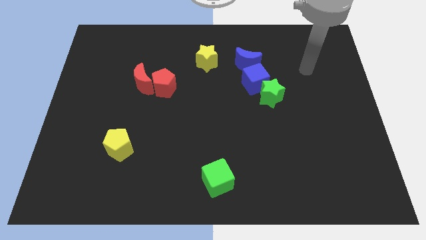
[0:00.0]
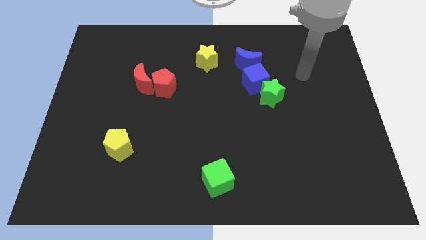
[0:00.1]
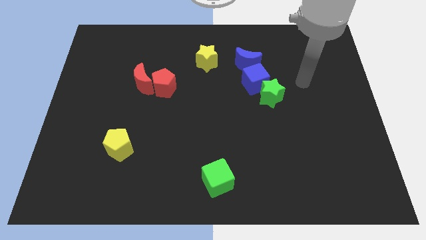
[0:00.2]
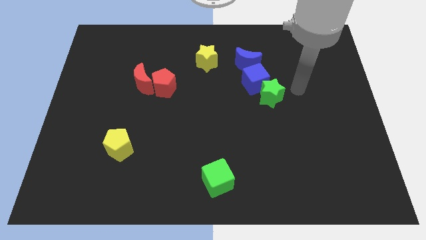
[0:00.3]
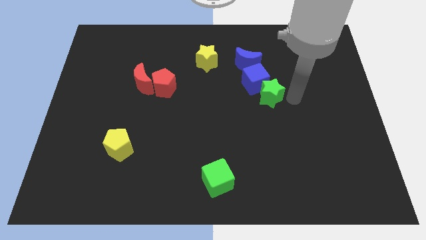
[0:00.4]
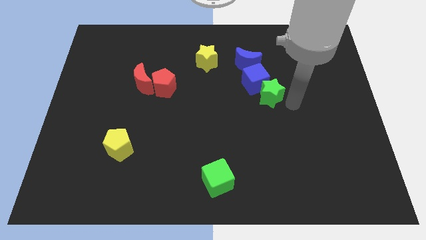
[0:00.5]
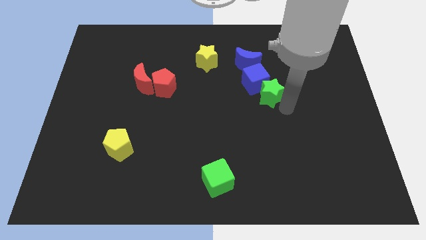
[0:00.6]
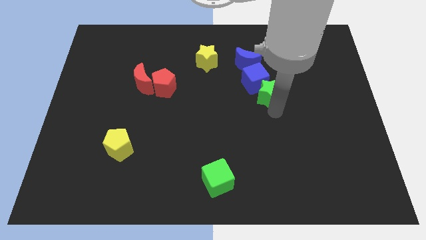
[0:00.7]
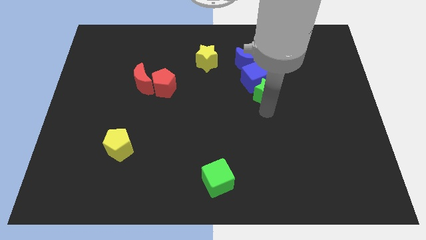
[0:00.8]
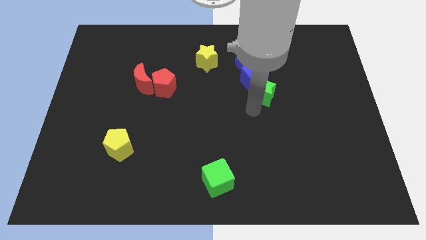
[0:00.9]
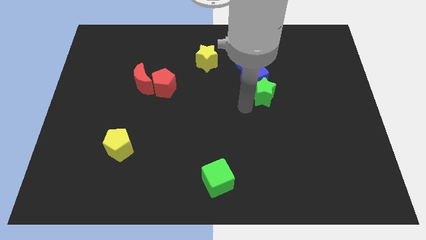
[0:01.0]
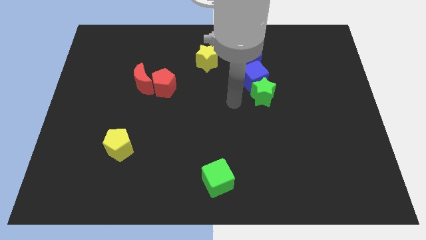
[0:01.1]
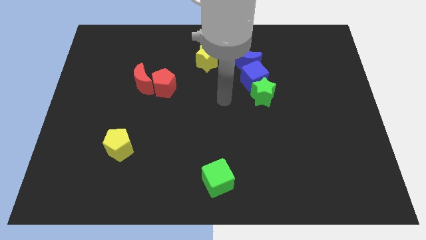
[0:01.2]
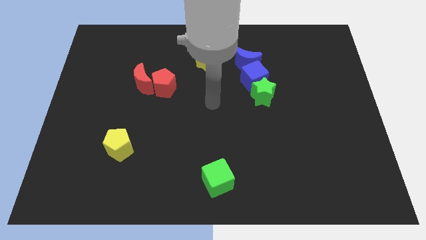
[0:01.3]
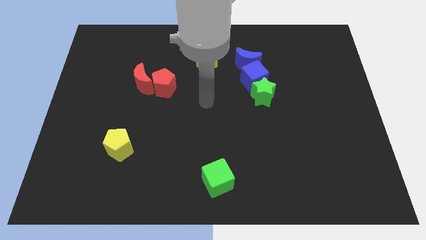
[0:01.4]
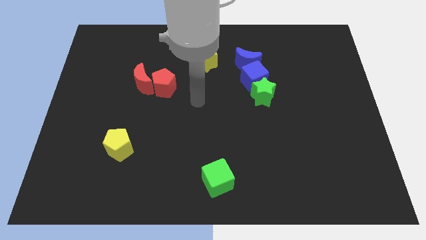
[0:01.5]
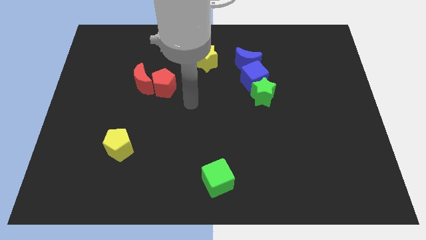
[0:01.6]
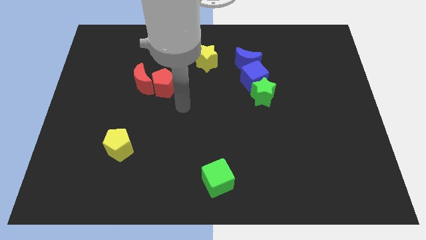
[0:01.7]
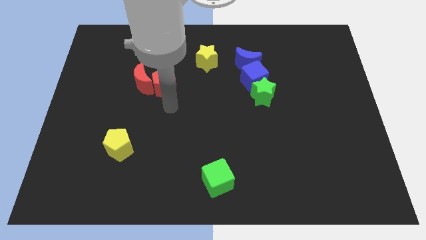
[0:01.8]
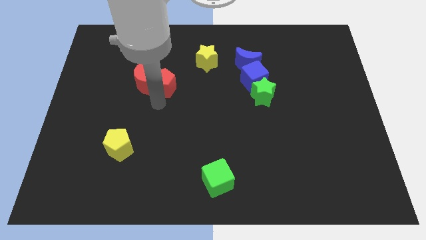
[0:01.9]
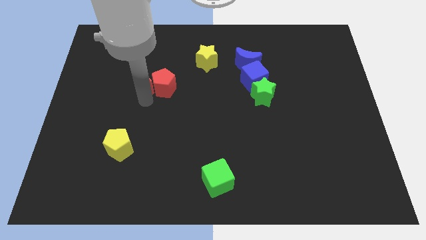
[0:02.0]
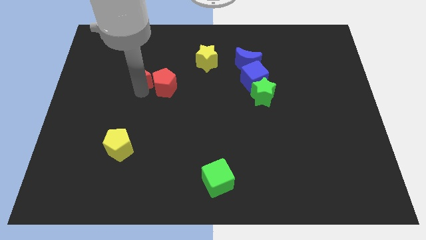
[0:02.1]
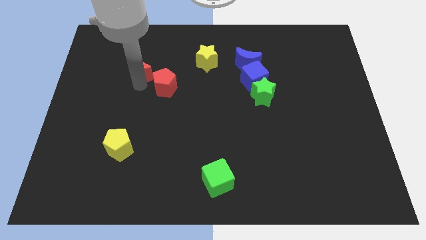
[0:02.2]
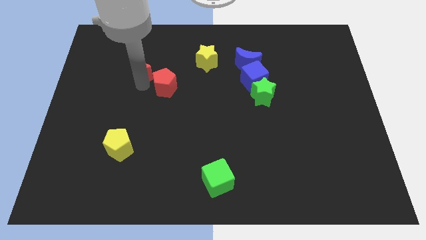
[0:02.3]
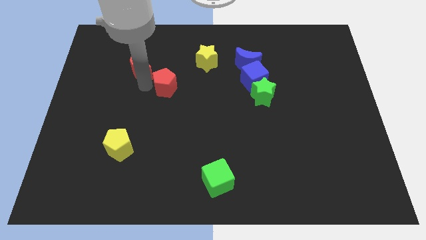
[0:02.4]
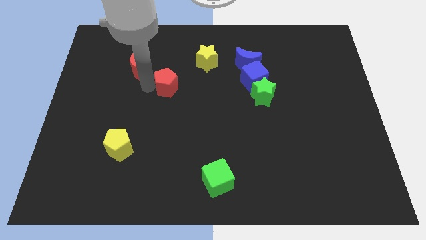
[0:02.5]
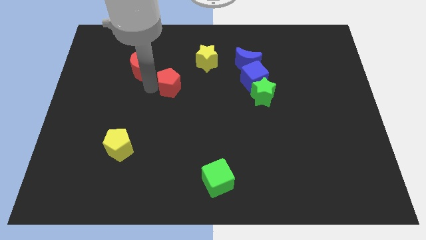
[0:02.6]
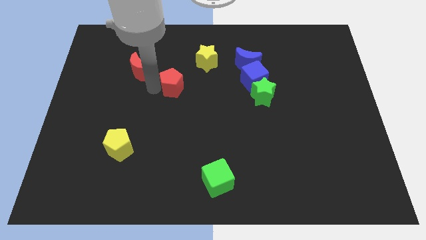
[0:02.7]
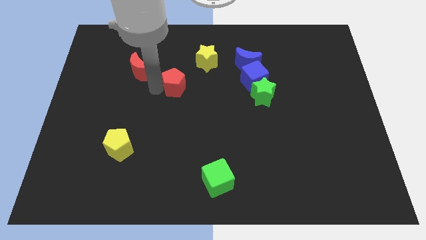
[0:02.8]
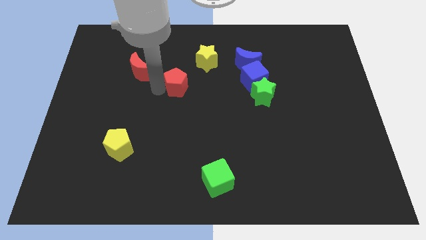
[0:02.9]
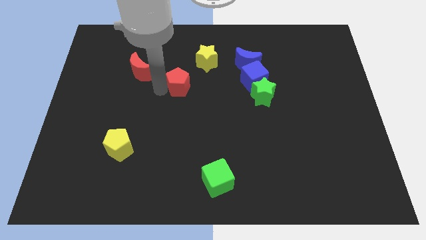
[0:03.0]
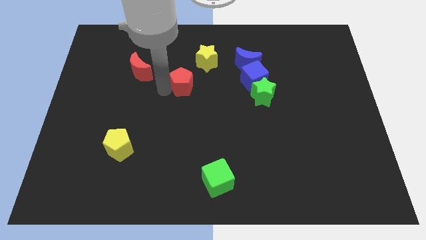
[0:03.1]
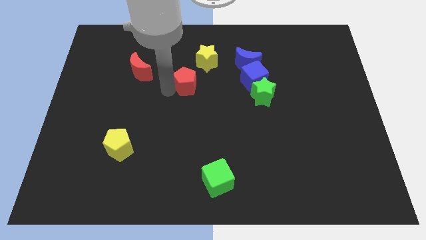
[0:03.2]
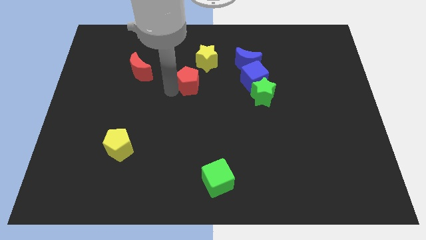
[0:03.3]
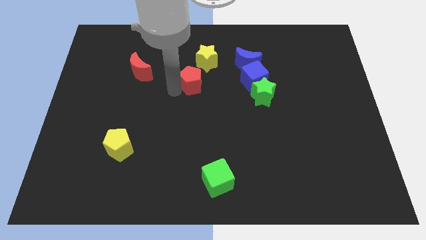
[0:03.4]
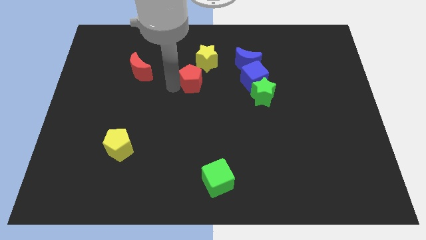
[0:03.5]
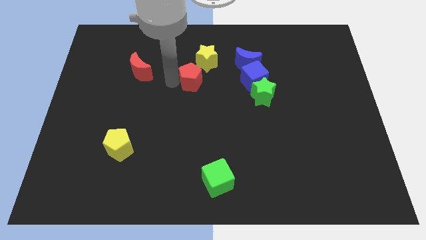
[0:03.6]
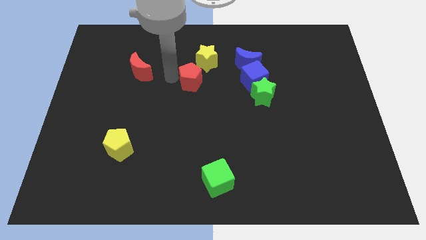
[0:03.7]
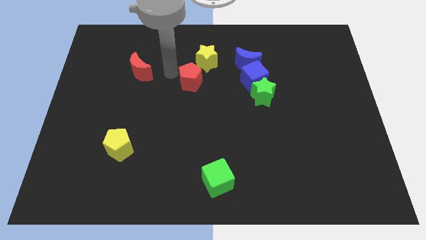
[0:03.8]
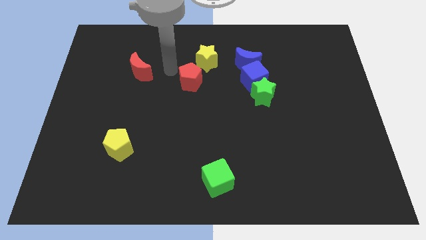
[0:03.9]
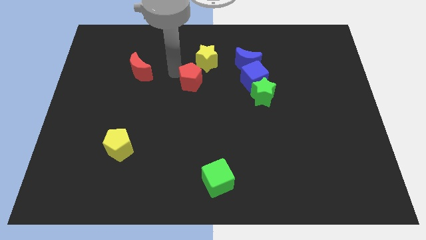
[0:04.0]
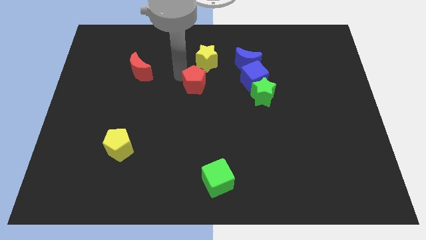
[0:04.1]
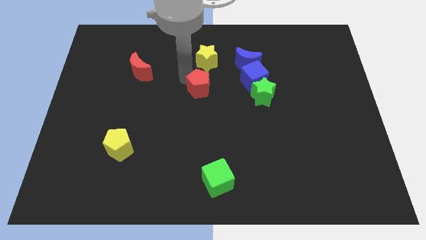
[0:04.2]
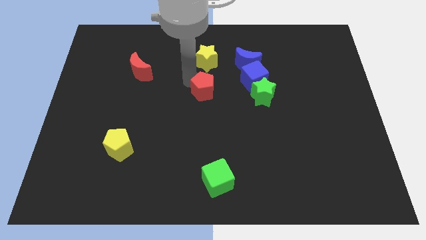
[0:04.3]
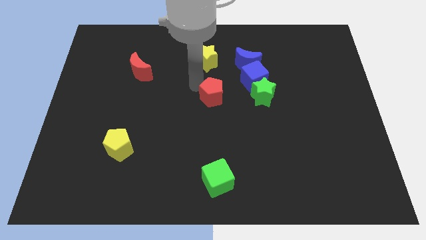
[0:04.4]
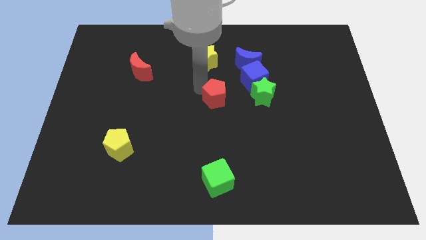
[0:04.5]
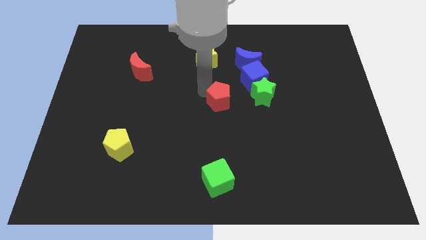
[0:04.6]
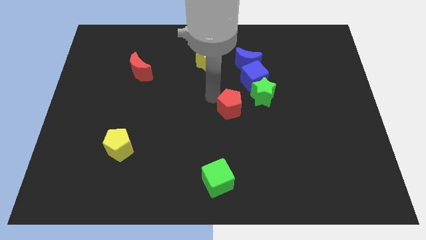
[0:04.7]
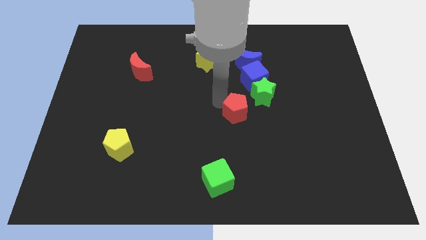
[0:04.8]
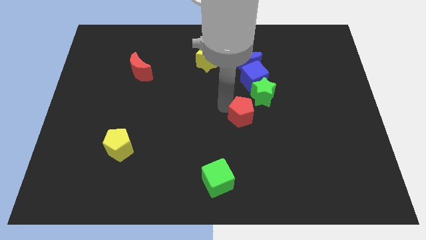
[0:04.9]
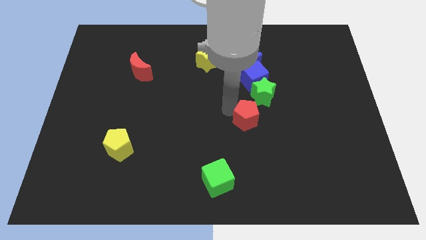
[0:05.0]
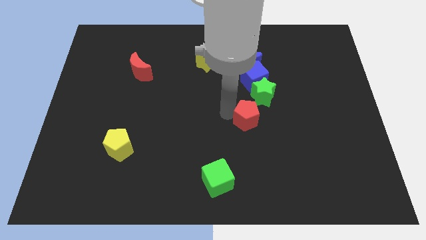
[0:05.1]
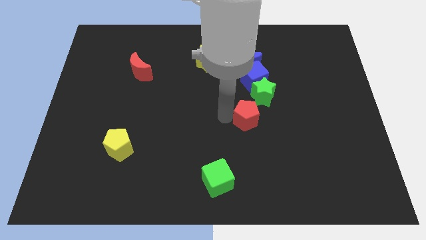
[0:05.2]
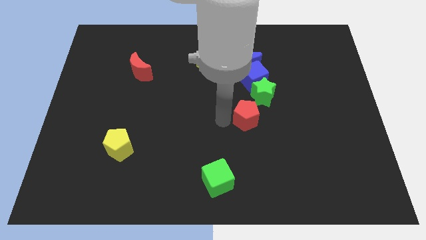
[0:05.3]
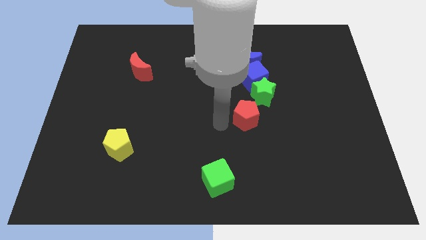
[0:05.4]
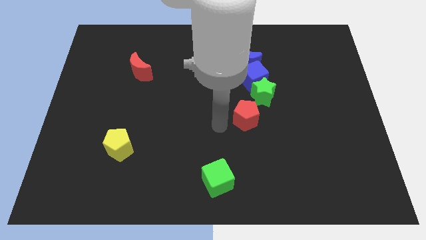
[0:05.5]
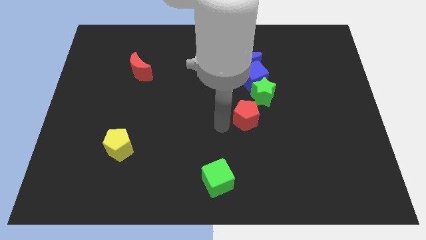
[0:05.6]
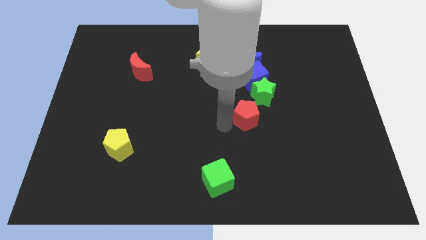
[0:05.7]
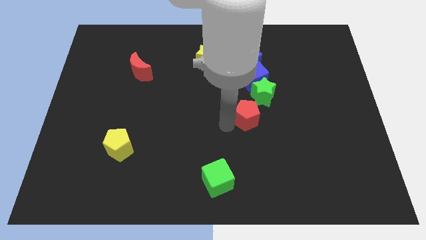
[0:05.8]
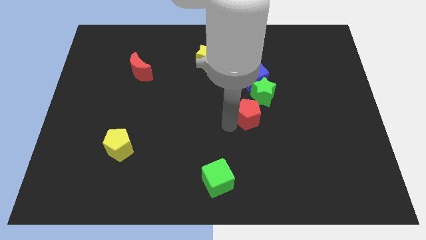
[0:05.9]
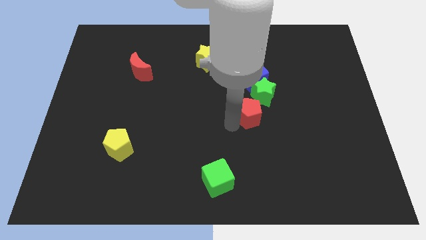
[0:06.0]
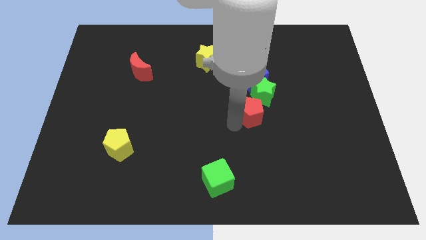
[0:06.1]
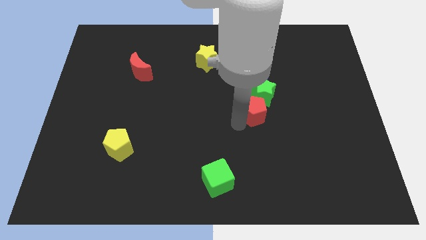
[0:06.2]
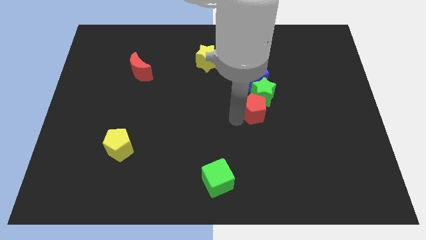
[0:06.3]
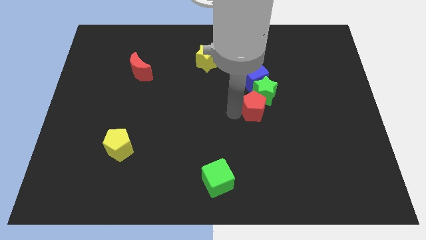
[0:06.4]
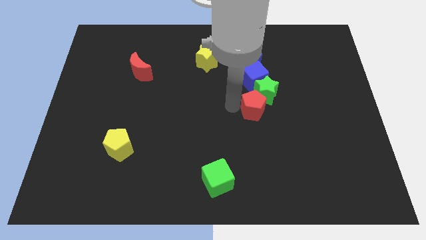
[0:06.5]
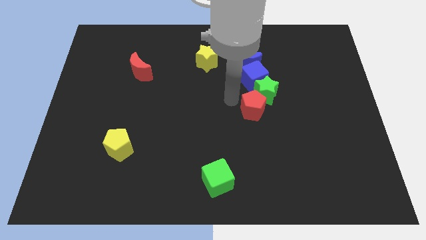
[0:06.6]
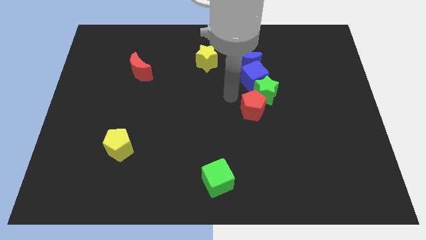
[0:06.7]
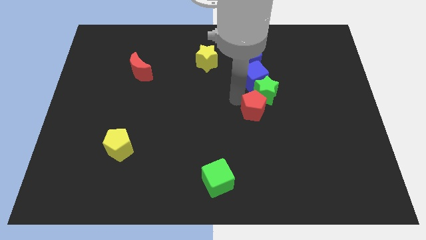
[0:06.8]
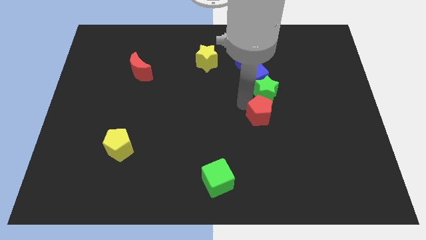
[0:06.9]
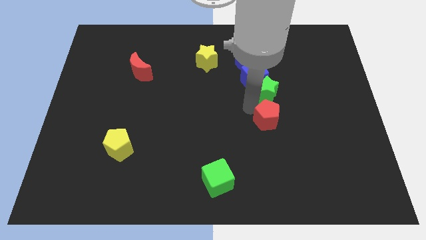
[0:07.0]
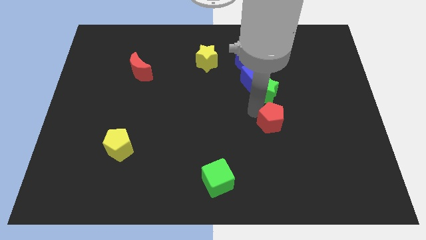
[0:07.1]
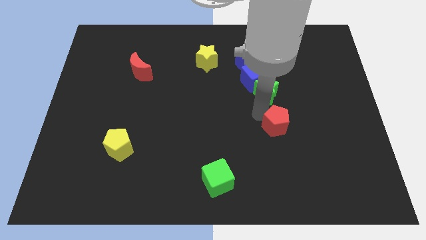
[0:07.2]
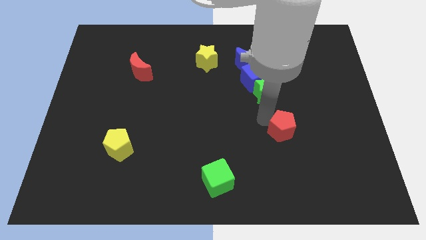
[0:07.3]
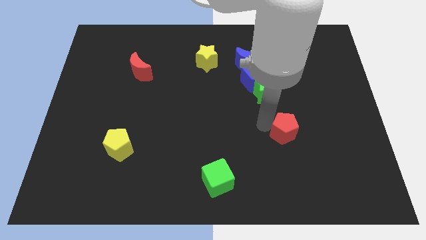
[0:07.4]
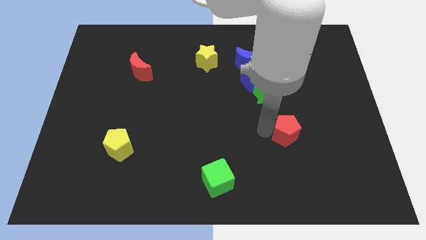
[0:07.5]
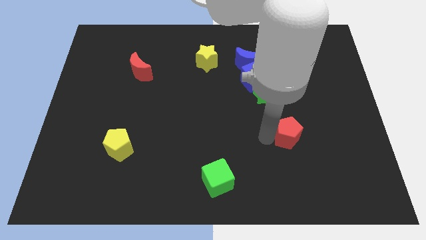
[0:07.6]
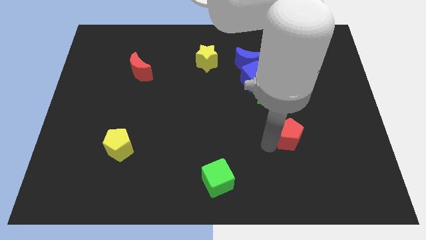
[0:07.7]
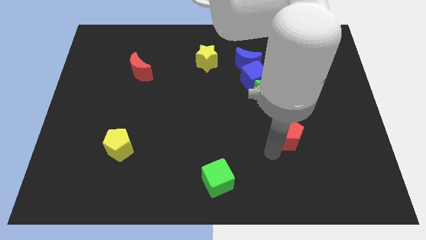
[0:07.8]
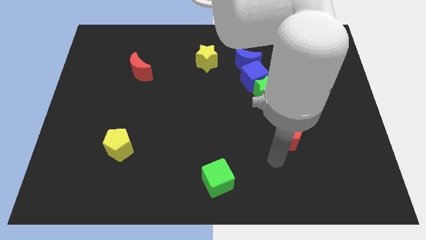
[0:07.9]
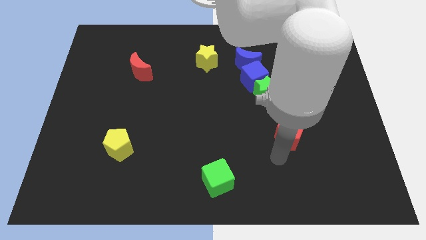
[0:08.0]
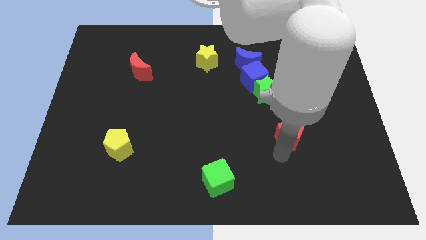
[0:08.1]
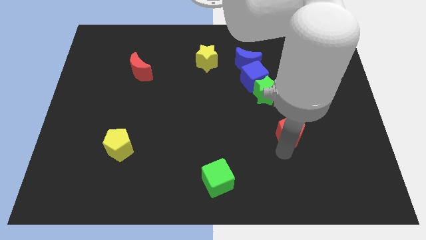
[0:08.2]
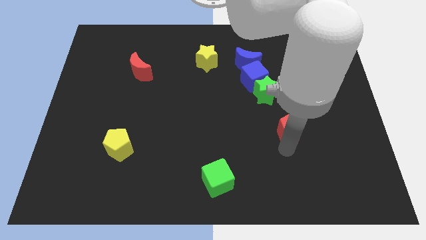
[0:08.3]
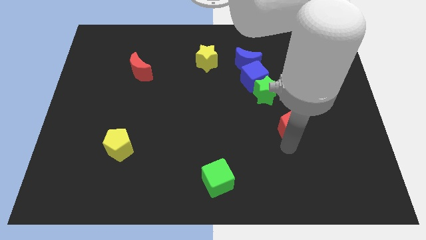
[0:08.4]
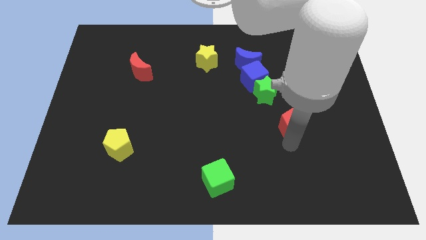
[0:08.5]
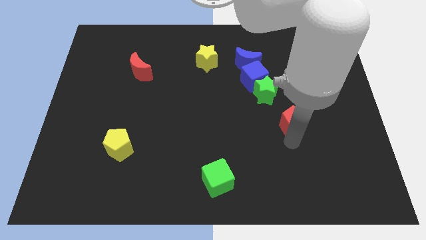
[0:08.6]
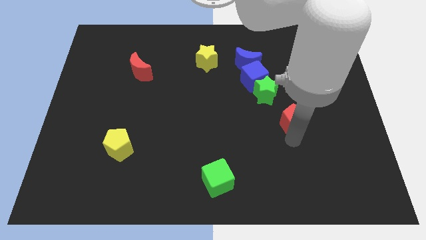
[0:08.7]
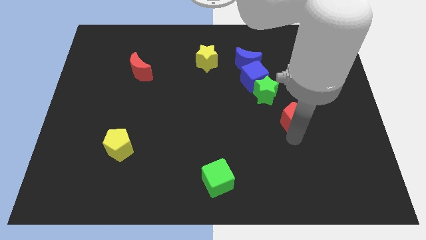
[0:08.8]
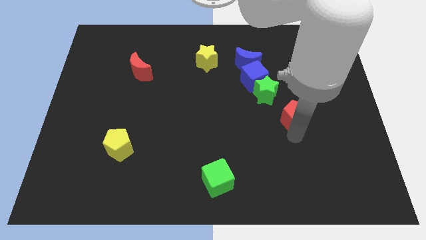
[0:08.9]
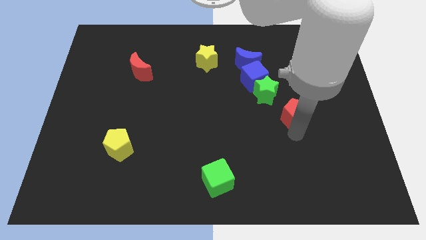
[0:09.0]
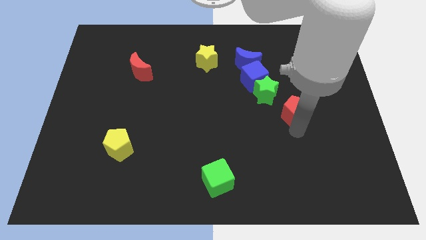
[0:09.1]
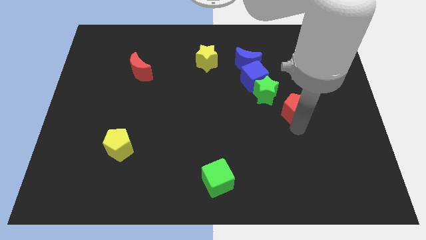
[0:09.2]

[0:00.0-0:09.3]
put the red pentagon right of the green star
